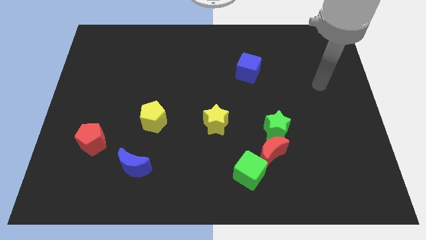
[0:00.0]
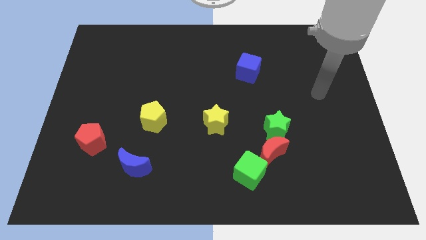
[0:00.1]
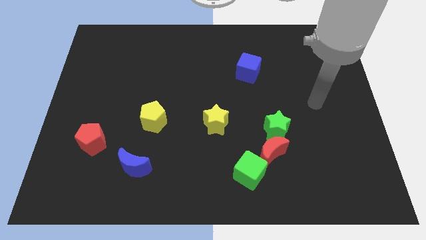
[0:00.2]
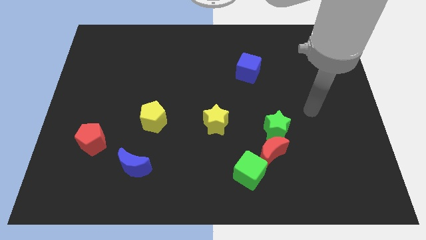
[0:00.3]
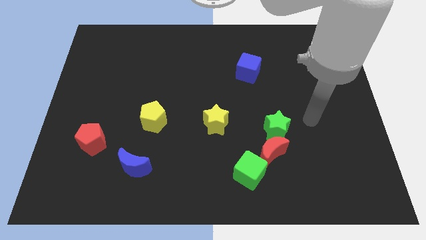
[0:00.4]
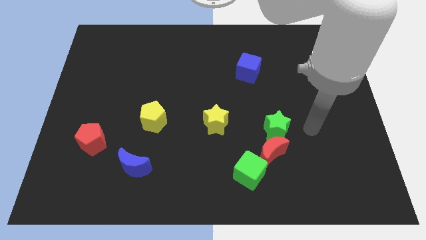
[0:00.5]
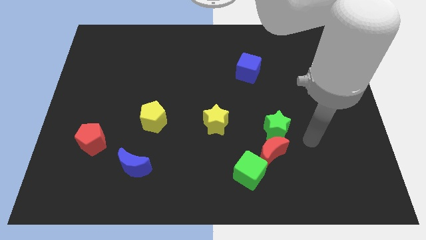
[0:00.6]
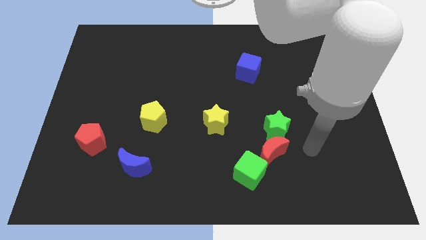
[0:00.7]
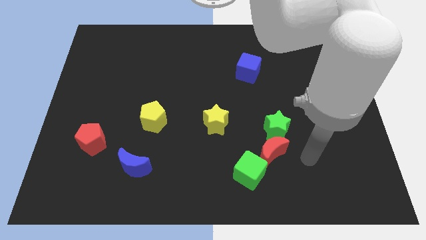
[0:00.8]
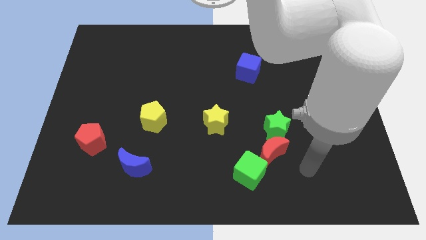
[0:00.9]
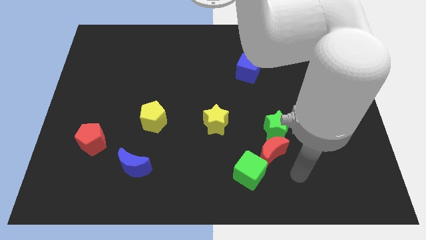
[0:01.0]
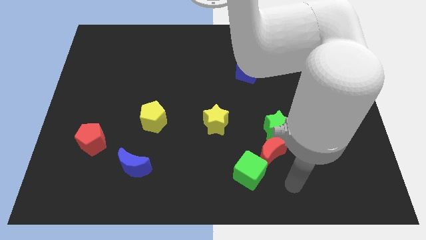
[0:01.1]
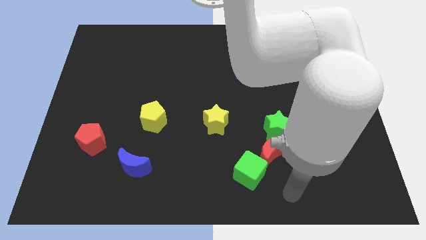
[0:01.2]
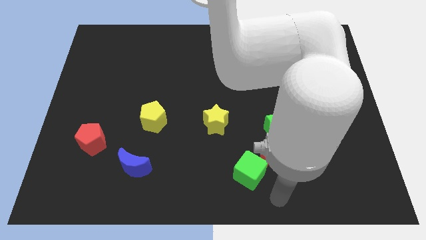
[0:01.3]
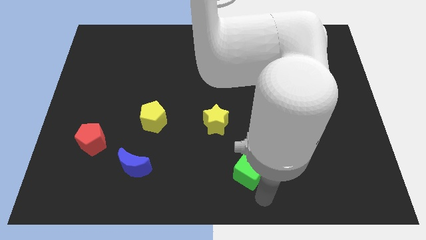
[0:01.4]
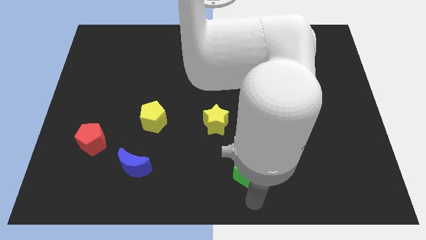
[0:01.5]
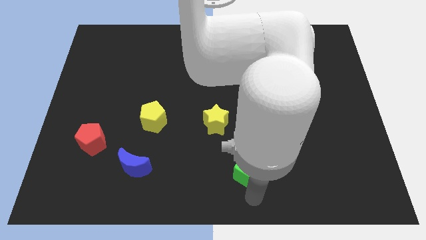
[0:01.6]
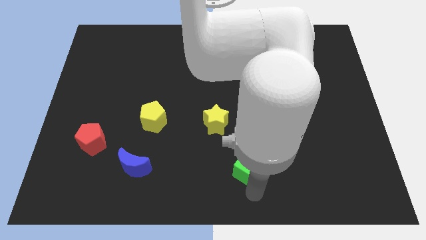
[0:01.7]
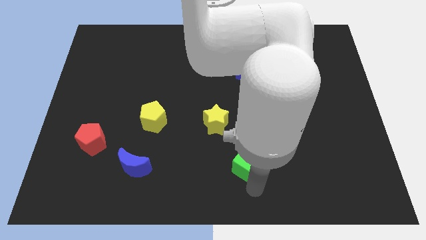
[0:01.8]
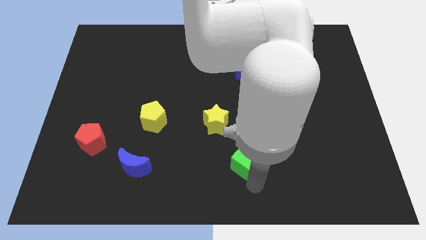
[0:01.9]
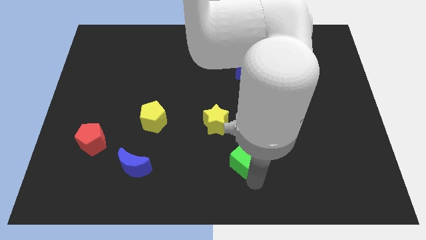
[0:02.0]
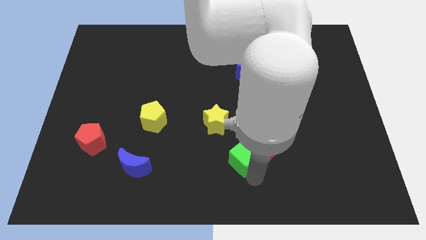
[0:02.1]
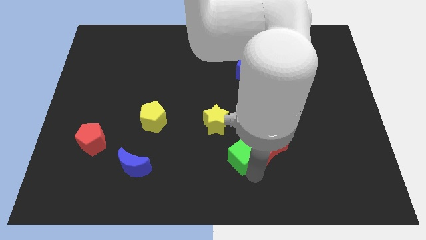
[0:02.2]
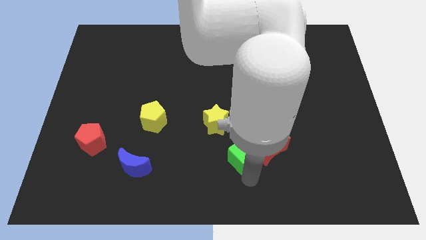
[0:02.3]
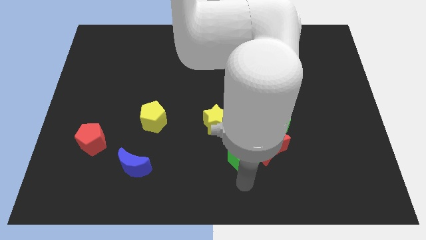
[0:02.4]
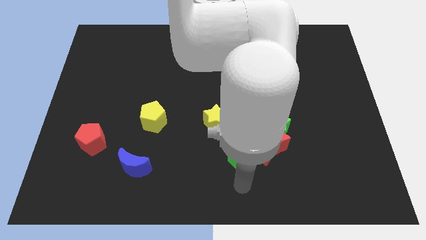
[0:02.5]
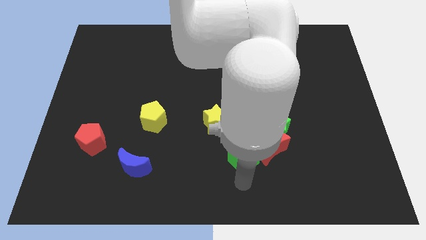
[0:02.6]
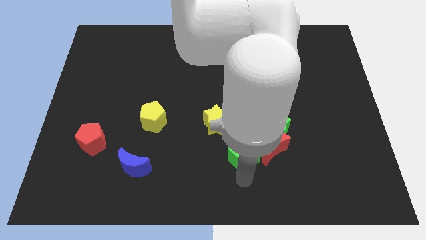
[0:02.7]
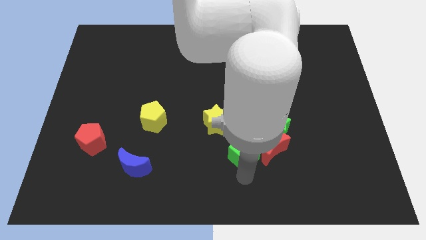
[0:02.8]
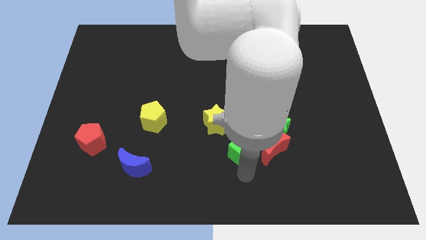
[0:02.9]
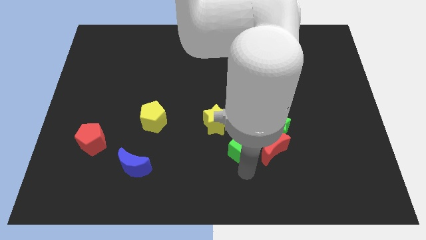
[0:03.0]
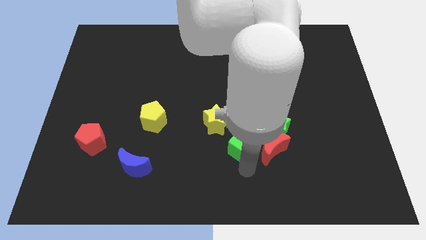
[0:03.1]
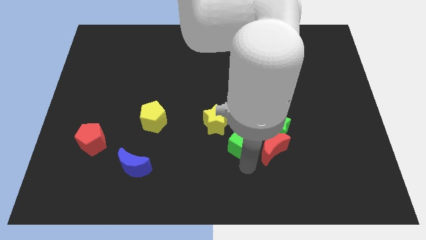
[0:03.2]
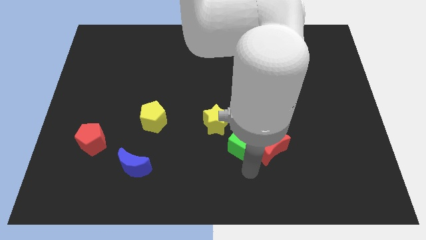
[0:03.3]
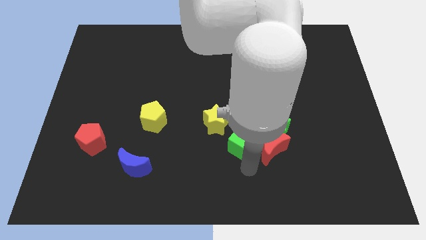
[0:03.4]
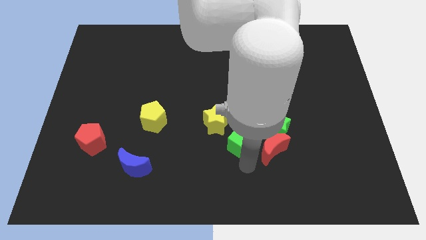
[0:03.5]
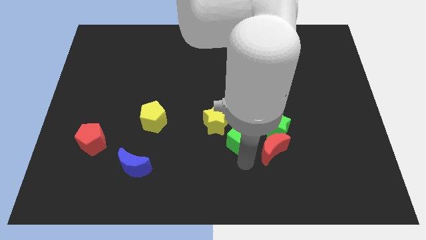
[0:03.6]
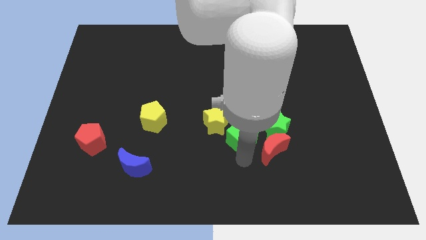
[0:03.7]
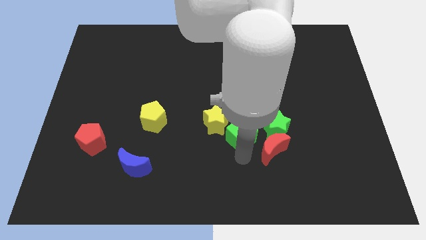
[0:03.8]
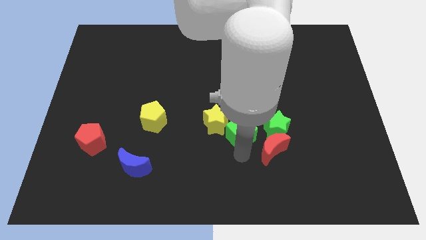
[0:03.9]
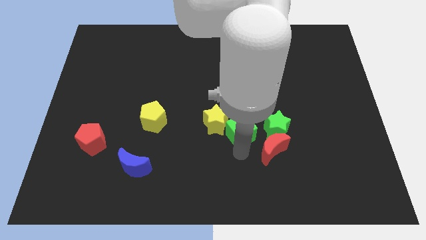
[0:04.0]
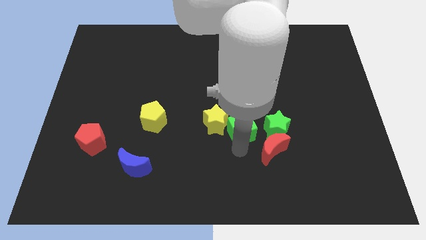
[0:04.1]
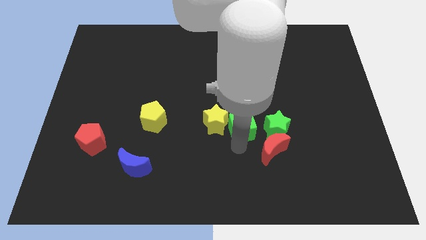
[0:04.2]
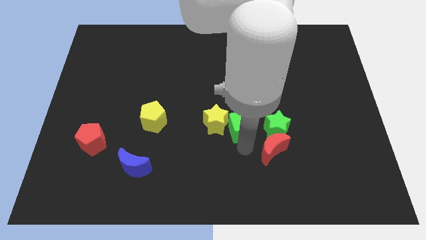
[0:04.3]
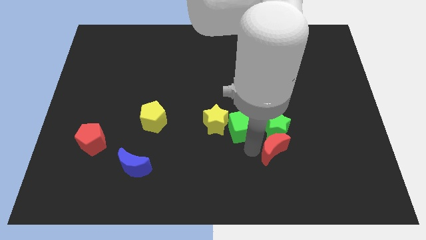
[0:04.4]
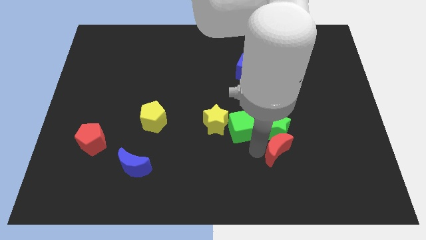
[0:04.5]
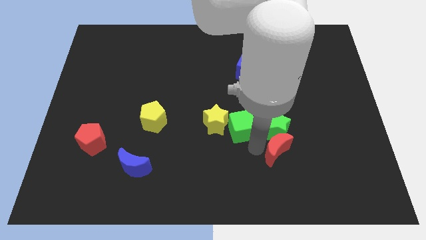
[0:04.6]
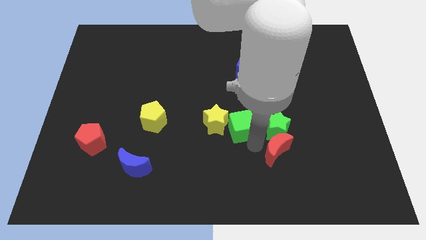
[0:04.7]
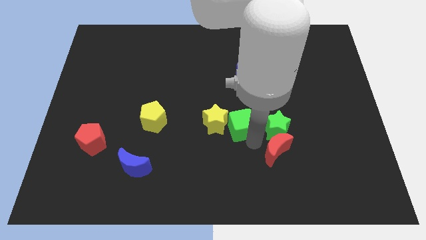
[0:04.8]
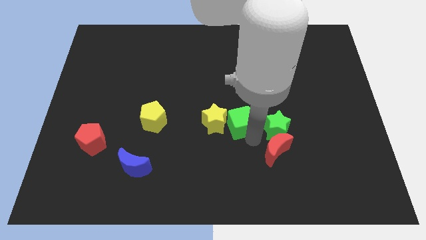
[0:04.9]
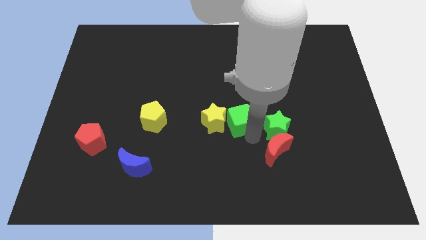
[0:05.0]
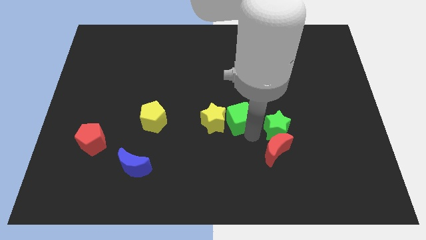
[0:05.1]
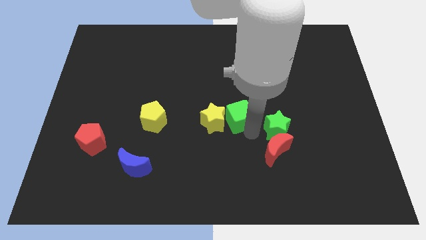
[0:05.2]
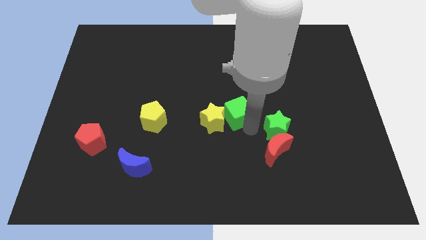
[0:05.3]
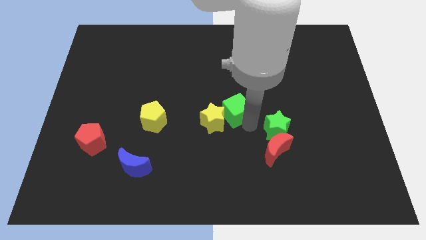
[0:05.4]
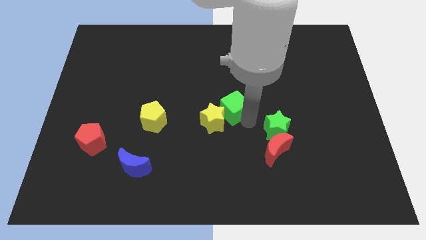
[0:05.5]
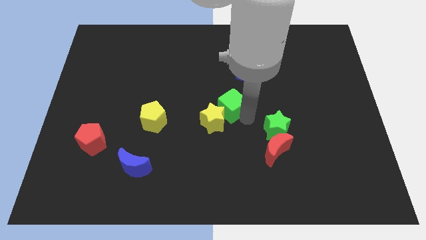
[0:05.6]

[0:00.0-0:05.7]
put the green cube above the yellow star

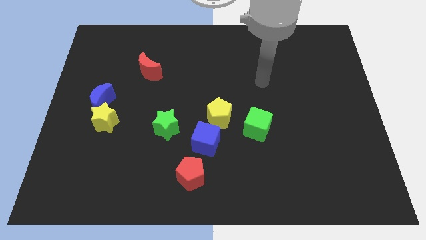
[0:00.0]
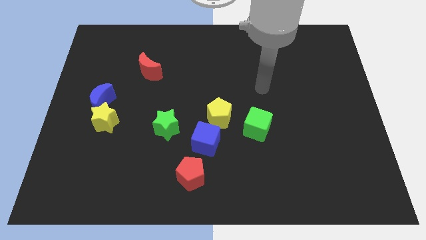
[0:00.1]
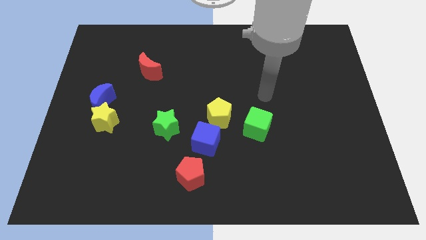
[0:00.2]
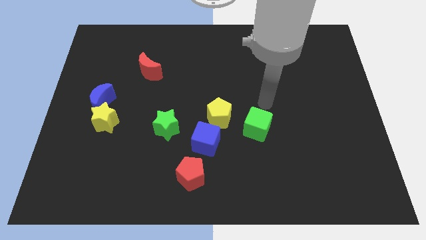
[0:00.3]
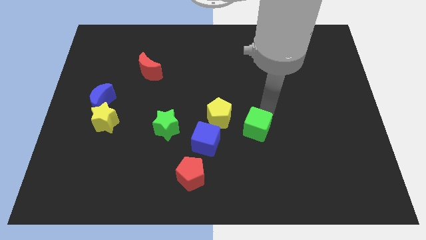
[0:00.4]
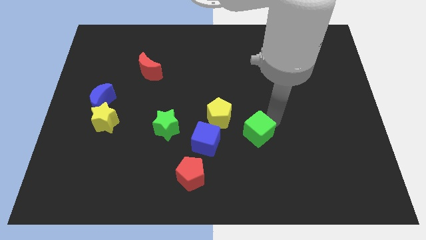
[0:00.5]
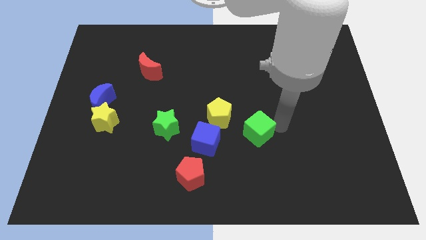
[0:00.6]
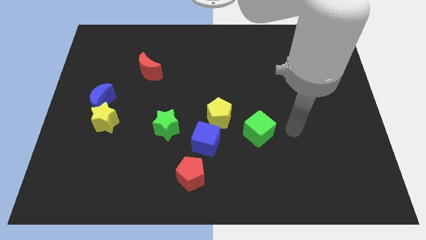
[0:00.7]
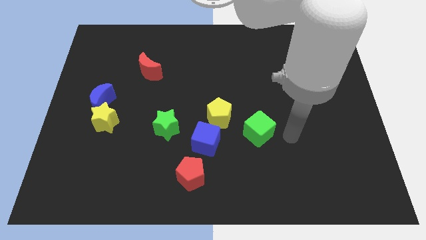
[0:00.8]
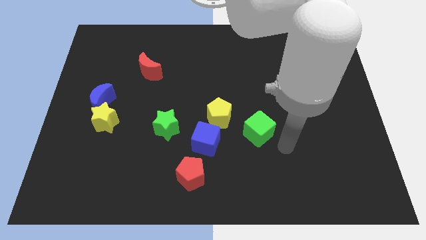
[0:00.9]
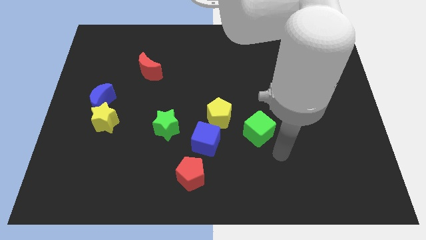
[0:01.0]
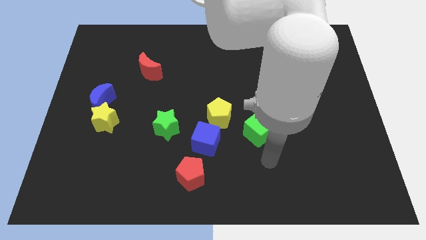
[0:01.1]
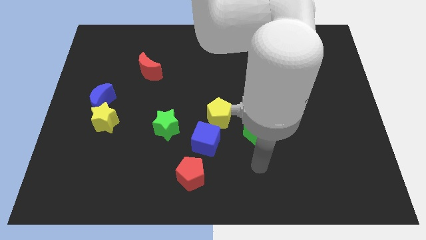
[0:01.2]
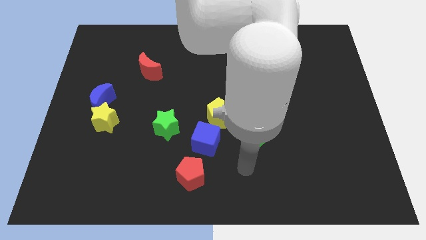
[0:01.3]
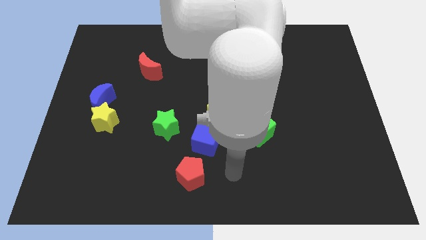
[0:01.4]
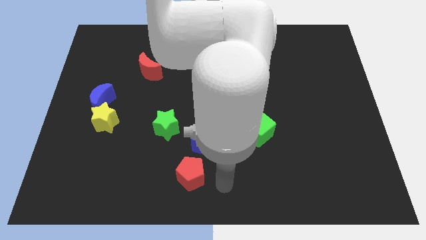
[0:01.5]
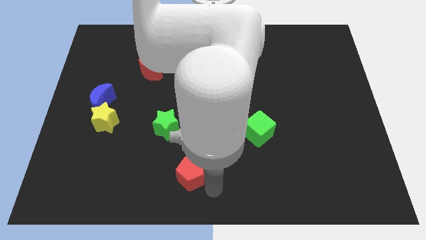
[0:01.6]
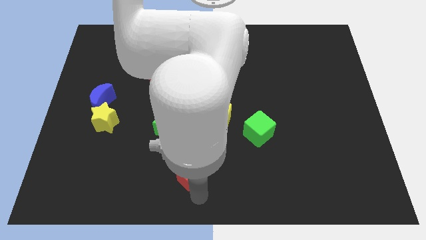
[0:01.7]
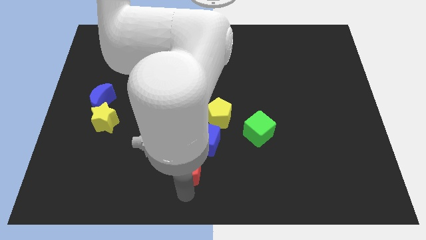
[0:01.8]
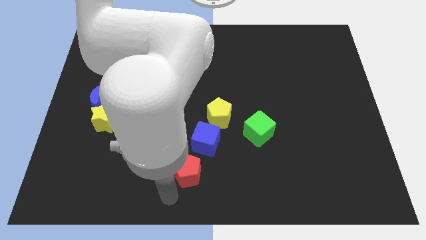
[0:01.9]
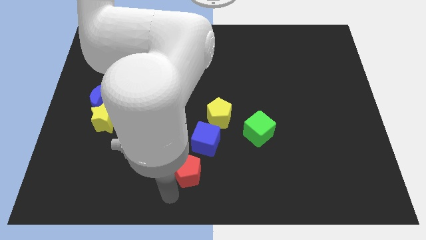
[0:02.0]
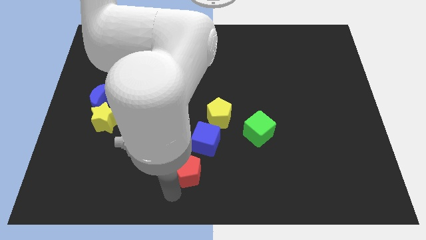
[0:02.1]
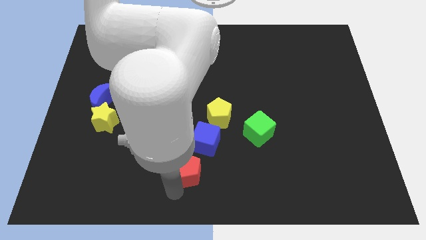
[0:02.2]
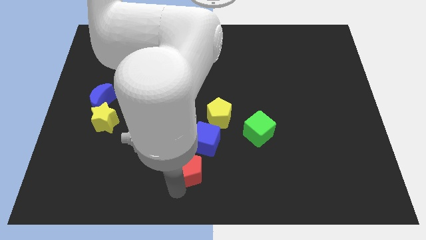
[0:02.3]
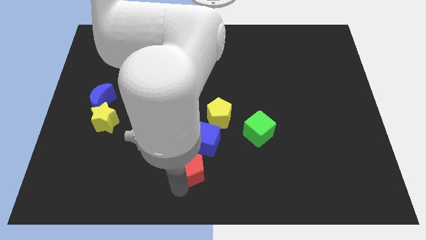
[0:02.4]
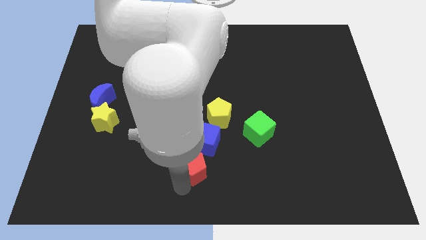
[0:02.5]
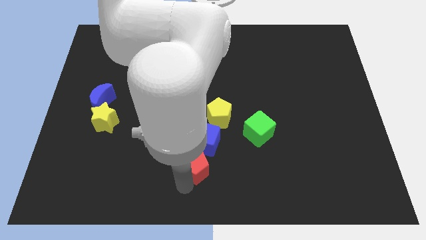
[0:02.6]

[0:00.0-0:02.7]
slide the red pentagon diagonally down and to the right of the green star
